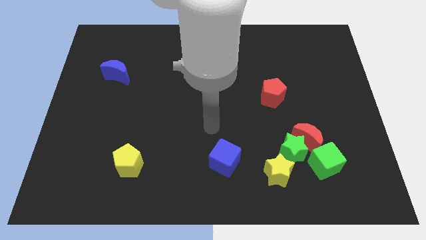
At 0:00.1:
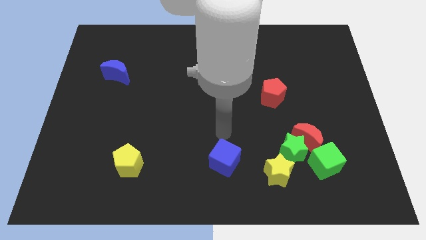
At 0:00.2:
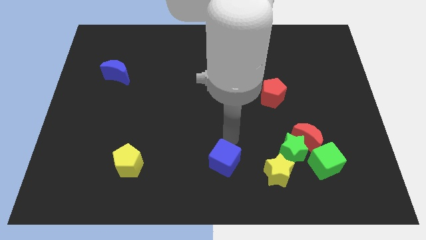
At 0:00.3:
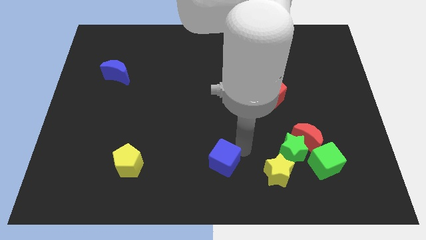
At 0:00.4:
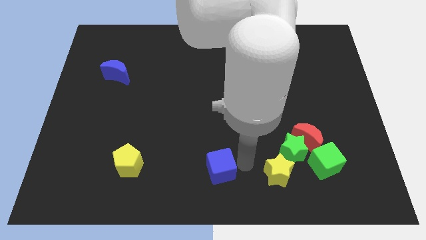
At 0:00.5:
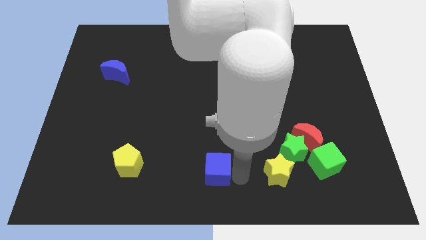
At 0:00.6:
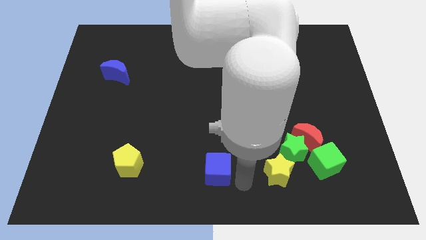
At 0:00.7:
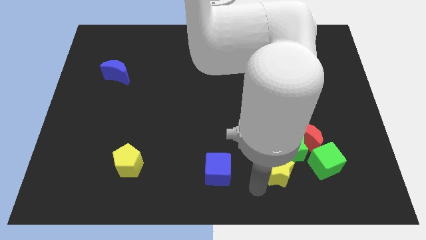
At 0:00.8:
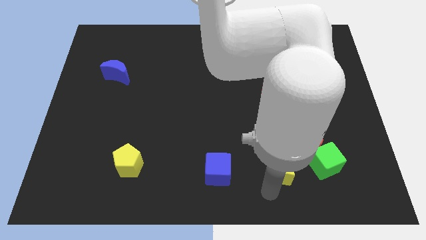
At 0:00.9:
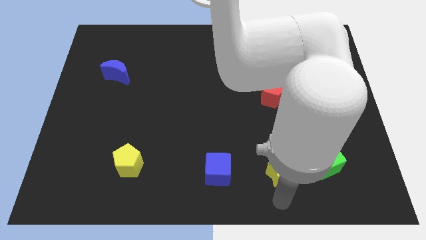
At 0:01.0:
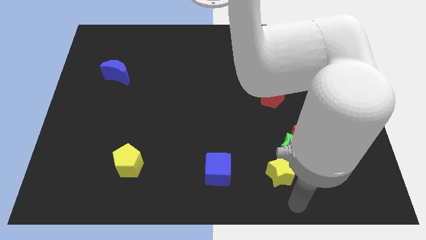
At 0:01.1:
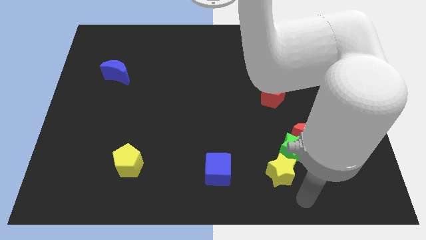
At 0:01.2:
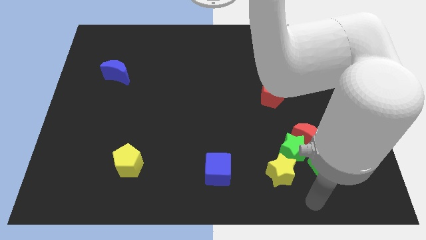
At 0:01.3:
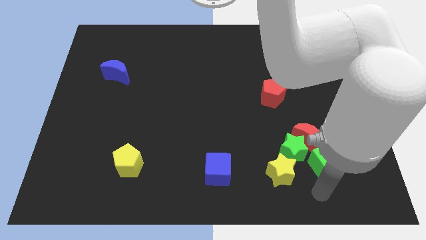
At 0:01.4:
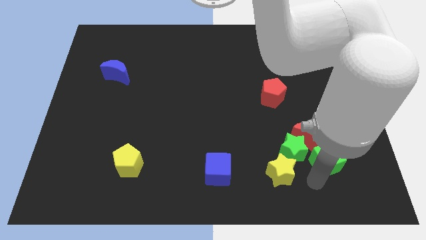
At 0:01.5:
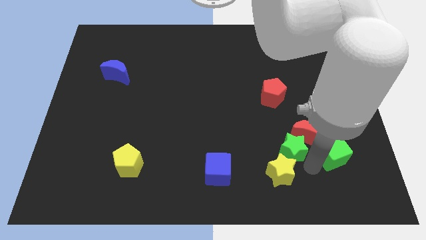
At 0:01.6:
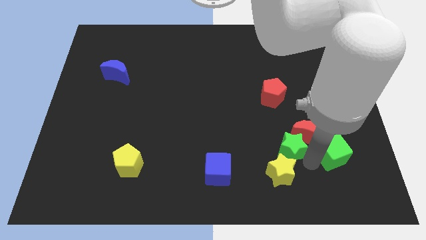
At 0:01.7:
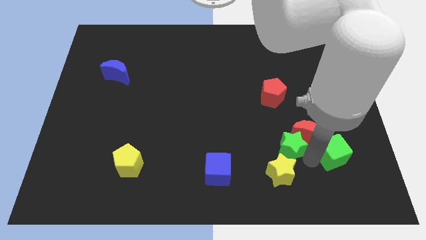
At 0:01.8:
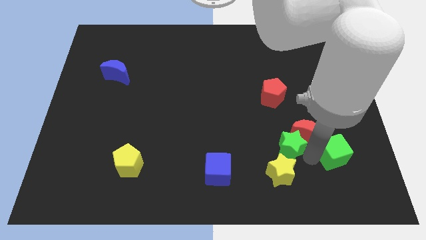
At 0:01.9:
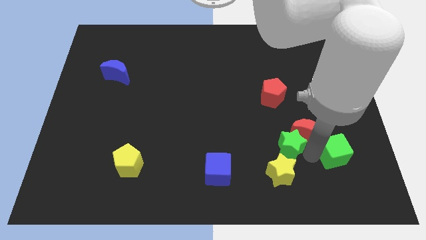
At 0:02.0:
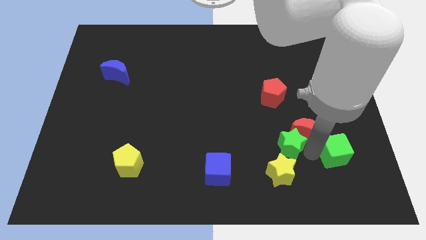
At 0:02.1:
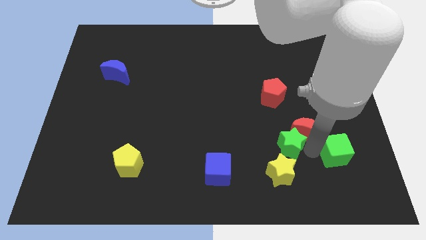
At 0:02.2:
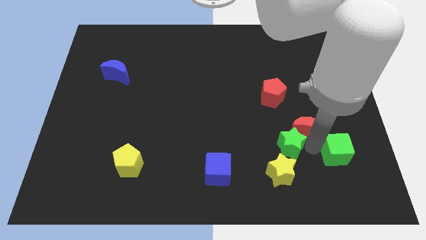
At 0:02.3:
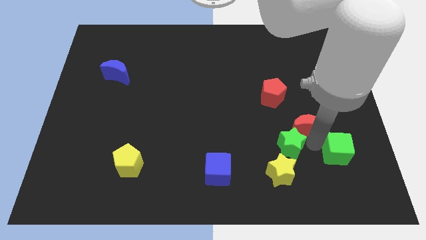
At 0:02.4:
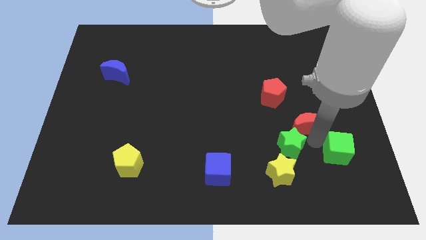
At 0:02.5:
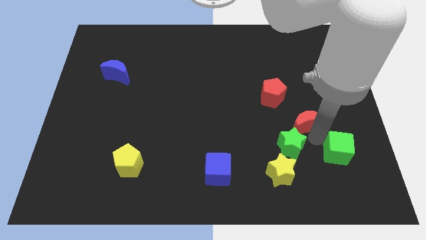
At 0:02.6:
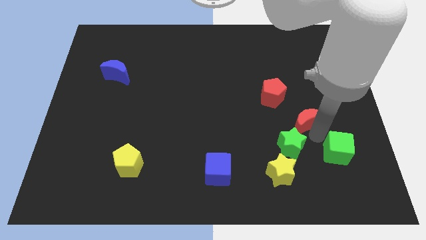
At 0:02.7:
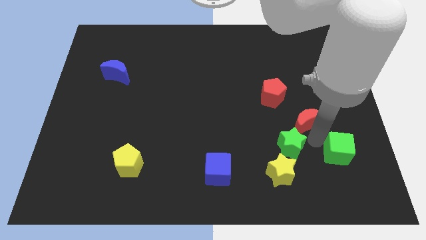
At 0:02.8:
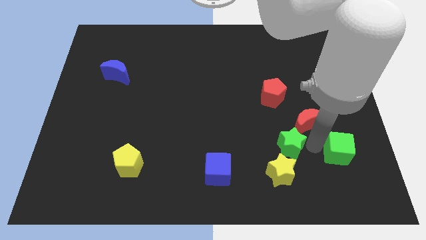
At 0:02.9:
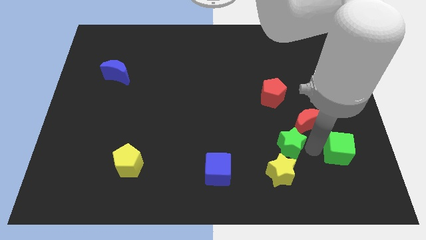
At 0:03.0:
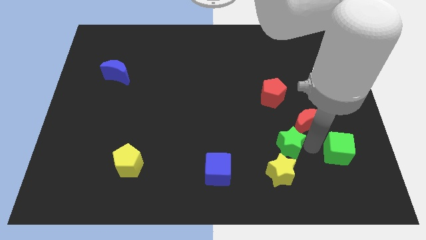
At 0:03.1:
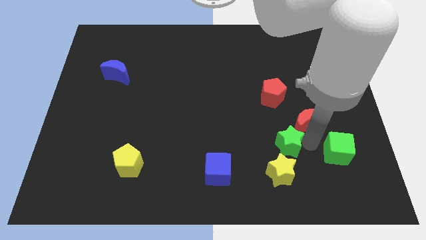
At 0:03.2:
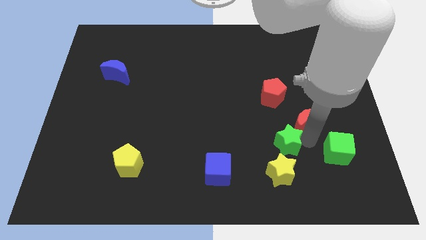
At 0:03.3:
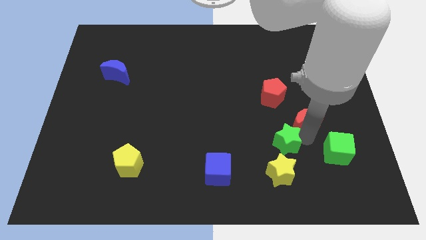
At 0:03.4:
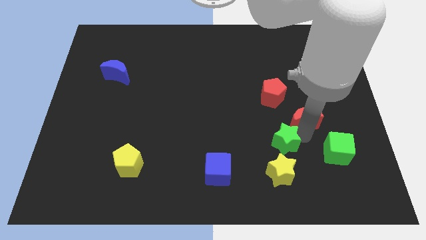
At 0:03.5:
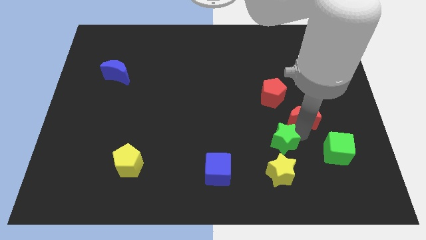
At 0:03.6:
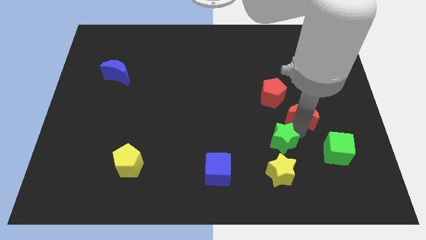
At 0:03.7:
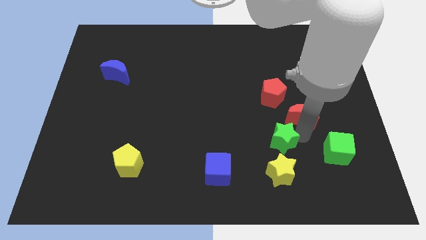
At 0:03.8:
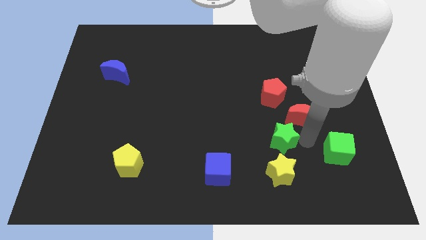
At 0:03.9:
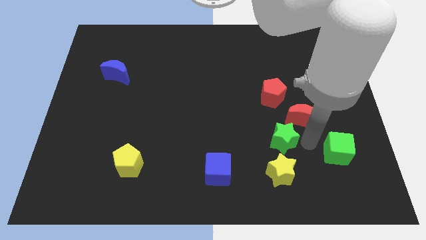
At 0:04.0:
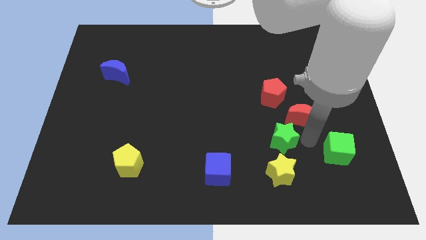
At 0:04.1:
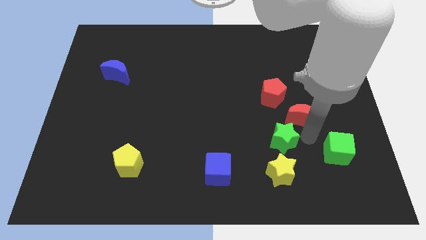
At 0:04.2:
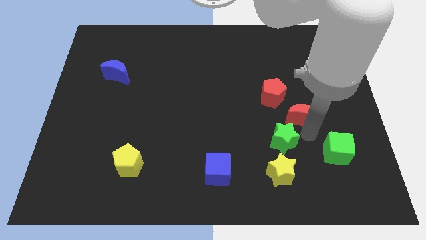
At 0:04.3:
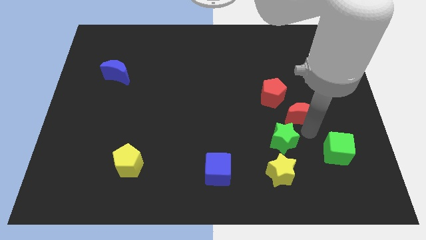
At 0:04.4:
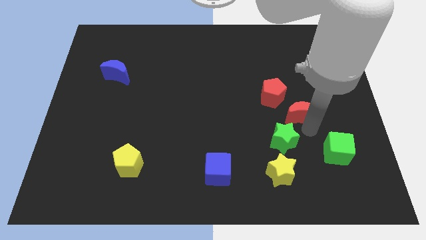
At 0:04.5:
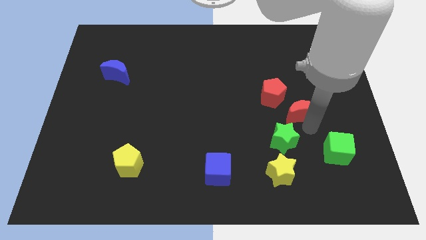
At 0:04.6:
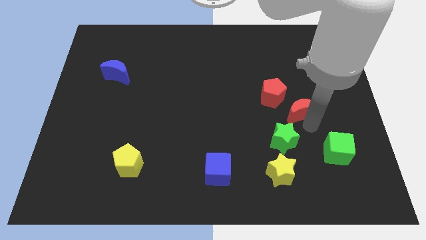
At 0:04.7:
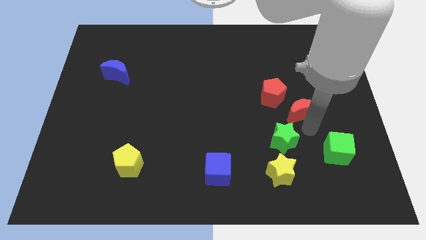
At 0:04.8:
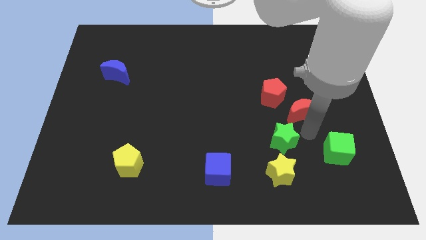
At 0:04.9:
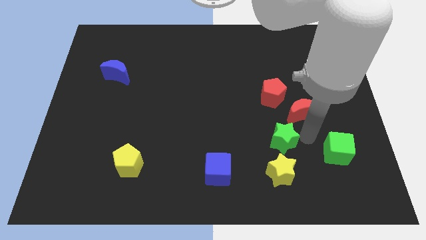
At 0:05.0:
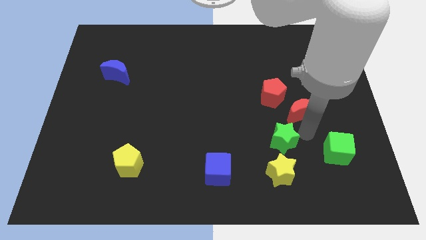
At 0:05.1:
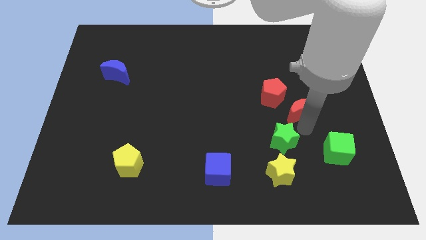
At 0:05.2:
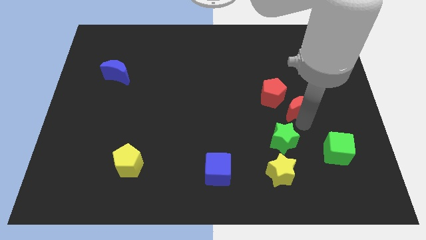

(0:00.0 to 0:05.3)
pull the red moon apart from the green star and green cube

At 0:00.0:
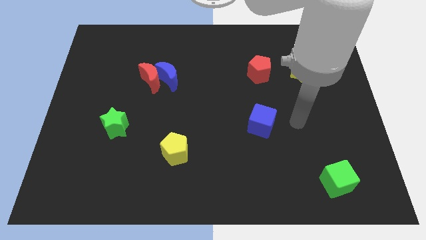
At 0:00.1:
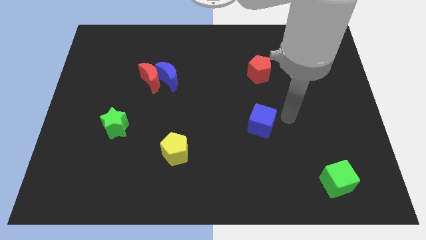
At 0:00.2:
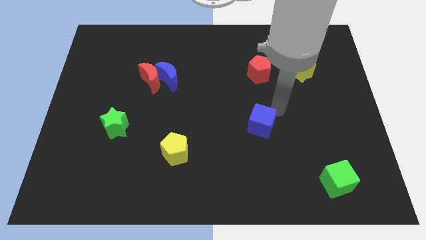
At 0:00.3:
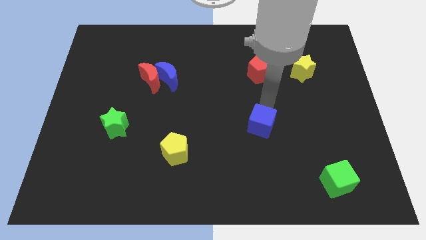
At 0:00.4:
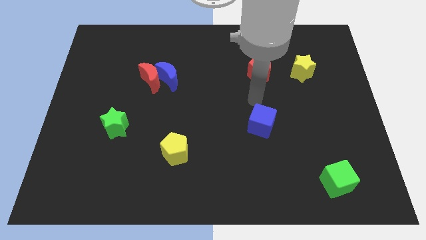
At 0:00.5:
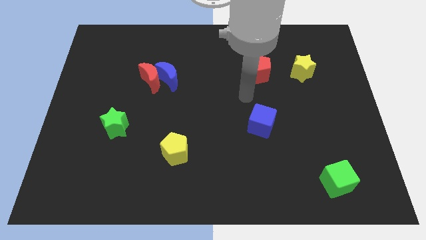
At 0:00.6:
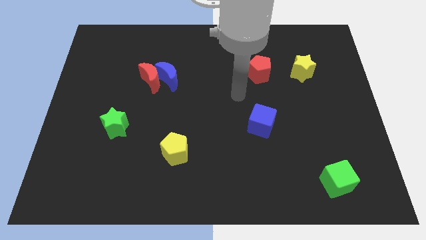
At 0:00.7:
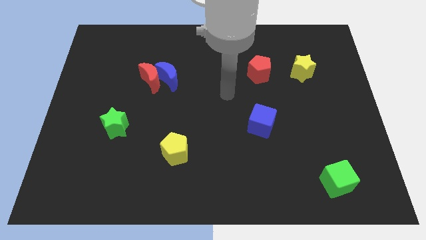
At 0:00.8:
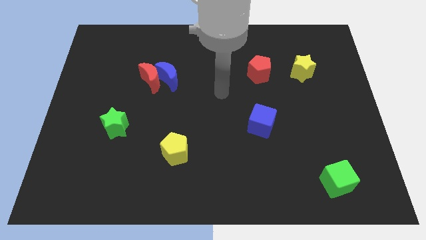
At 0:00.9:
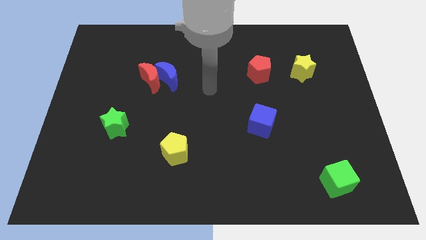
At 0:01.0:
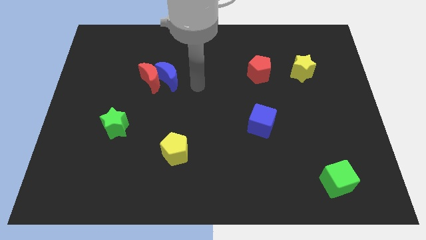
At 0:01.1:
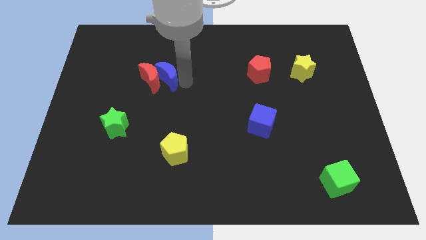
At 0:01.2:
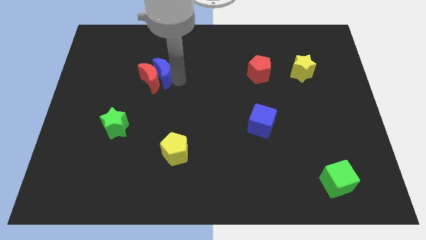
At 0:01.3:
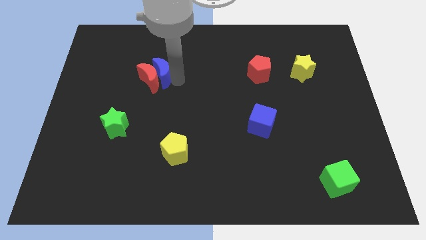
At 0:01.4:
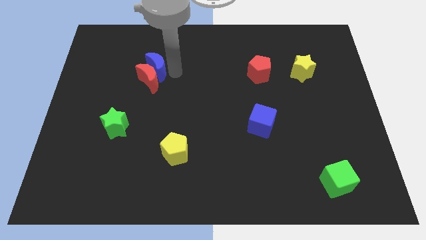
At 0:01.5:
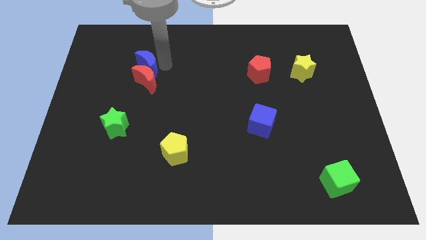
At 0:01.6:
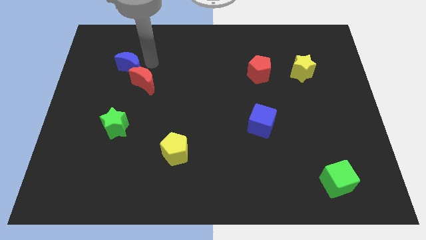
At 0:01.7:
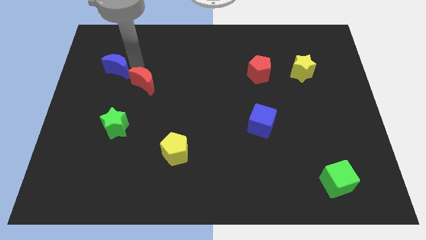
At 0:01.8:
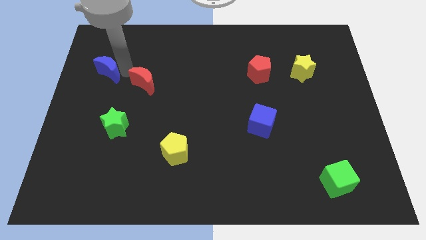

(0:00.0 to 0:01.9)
separate the red moon from the blue moon

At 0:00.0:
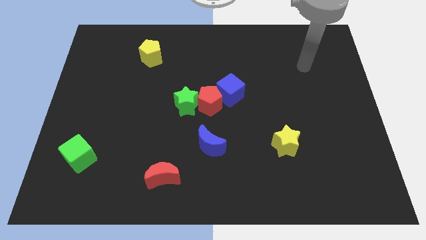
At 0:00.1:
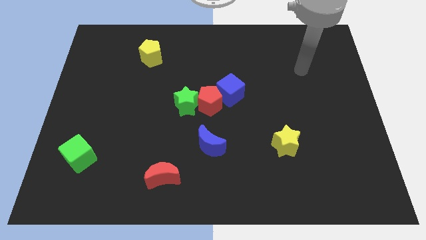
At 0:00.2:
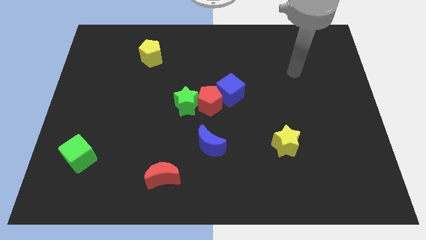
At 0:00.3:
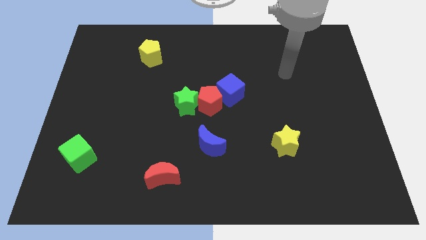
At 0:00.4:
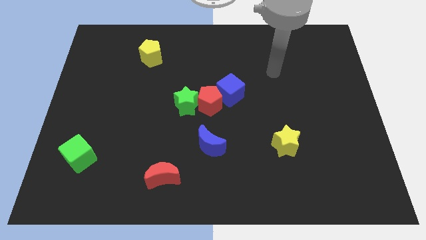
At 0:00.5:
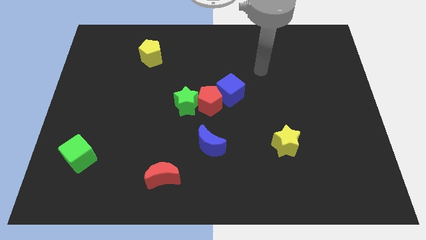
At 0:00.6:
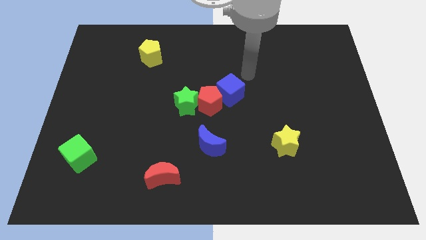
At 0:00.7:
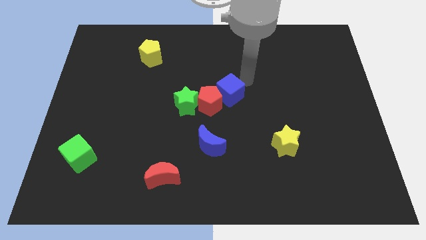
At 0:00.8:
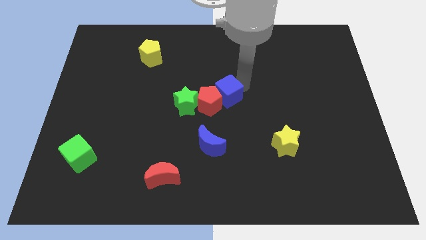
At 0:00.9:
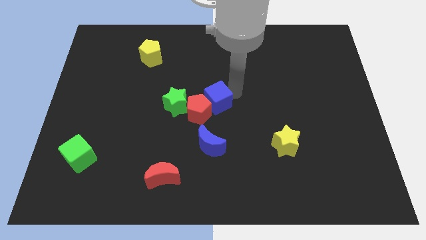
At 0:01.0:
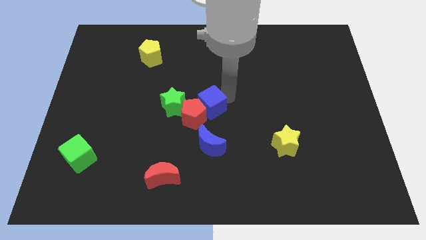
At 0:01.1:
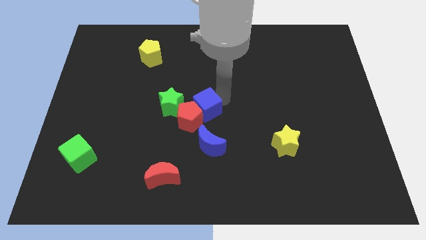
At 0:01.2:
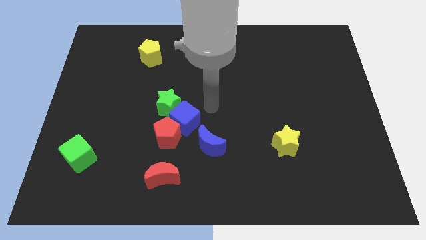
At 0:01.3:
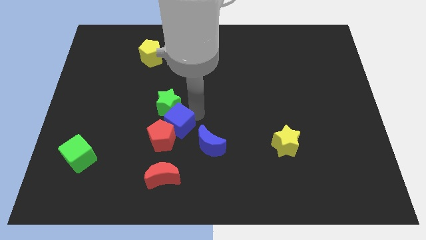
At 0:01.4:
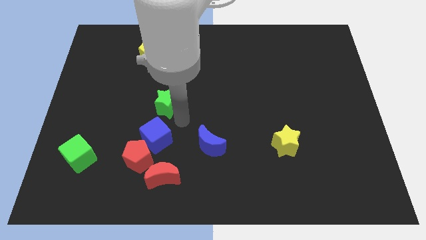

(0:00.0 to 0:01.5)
pull the green star apart from the red pentagon

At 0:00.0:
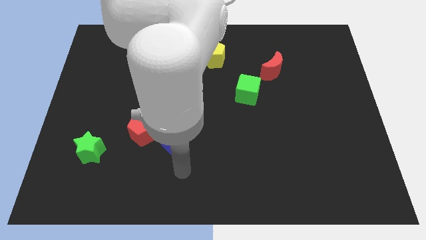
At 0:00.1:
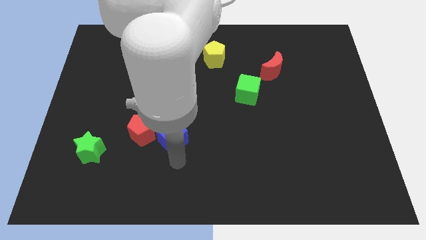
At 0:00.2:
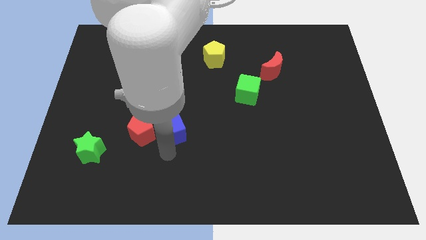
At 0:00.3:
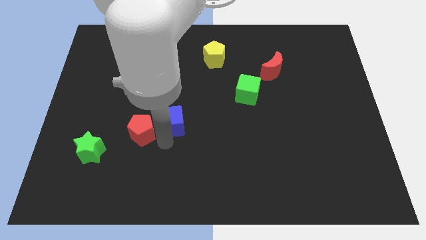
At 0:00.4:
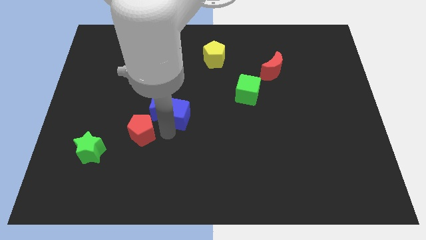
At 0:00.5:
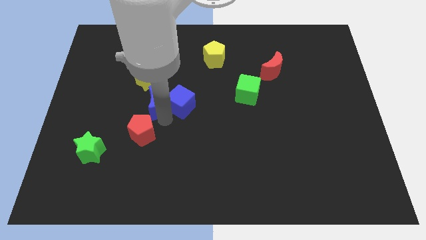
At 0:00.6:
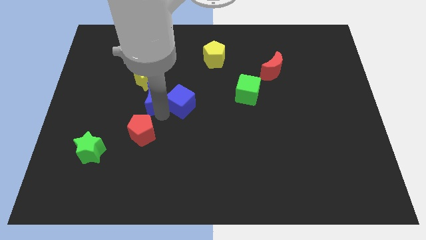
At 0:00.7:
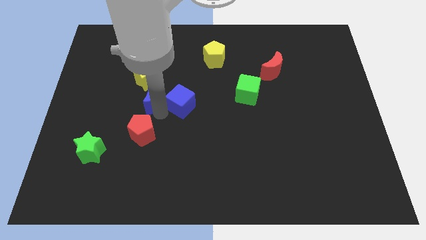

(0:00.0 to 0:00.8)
move the red pentagon away from the blue cube and blue moon
